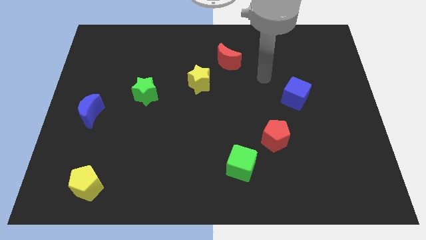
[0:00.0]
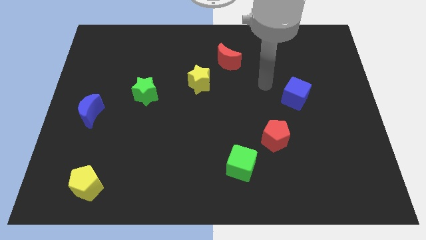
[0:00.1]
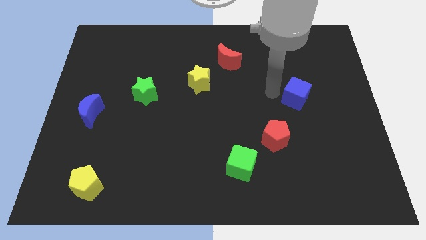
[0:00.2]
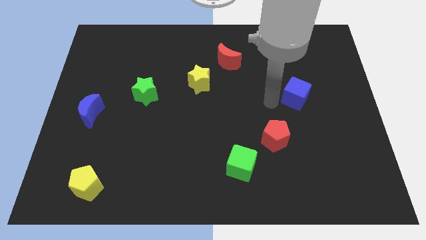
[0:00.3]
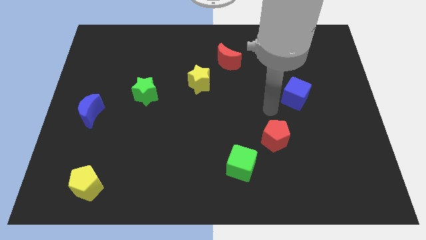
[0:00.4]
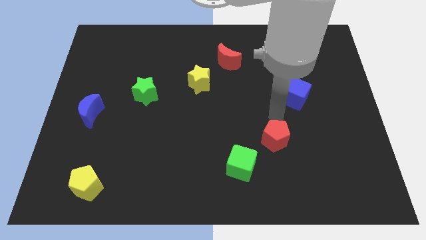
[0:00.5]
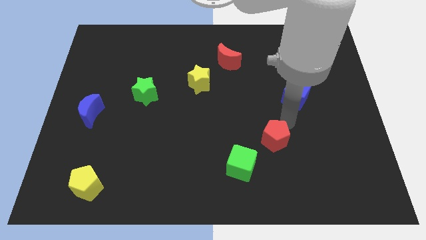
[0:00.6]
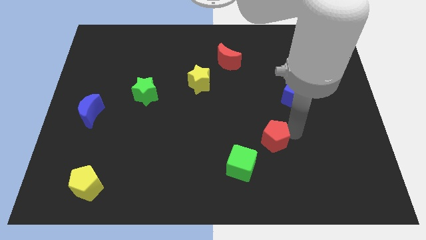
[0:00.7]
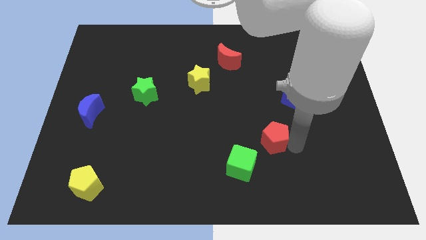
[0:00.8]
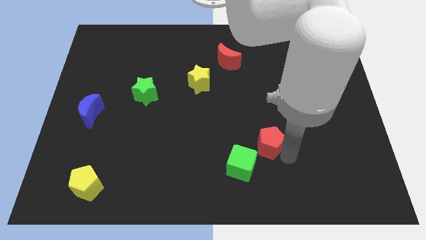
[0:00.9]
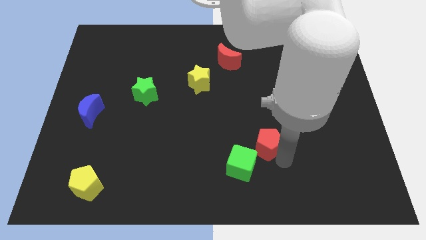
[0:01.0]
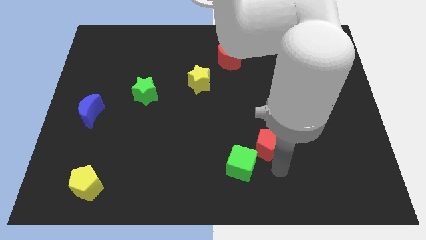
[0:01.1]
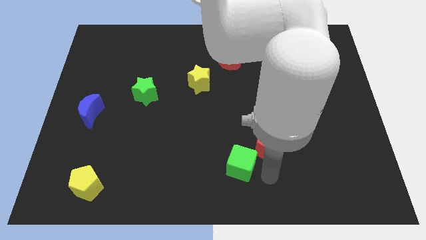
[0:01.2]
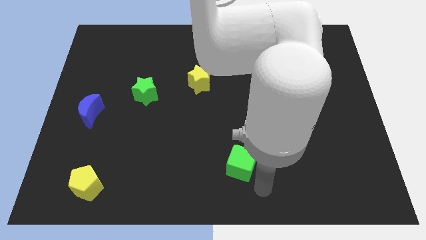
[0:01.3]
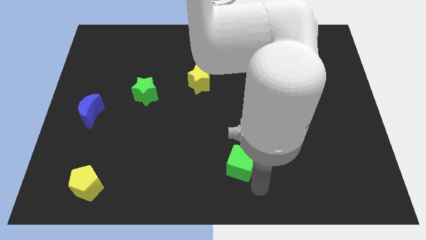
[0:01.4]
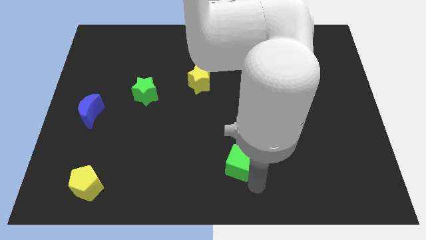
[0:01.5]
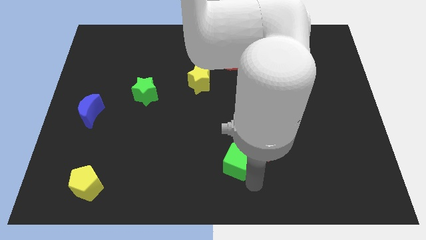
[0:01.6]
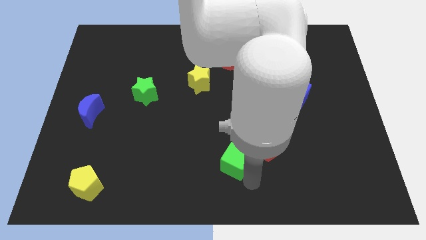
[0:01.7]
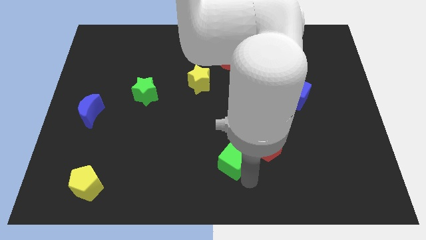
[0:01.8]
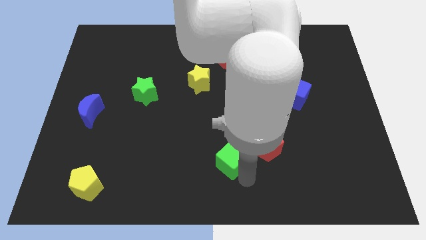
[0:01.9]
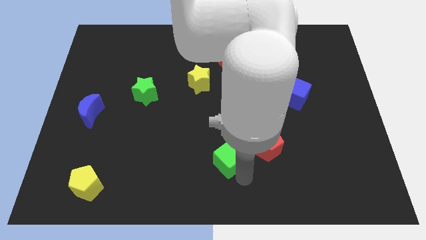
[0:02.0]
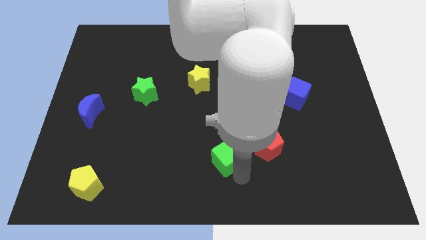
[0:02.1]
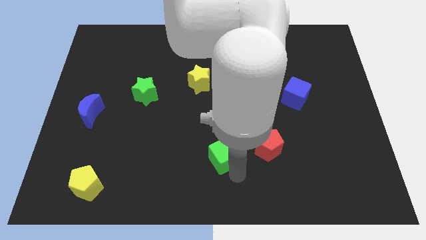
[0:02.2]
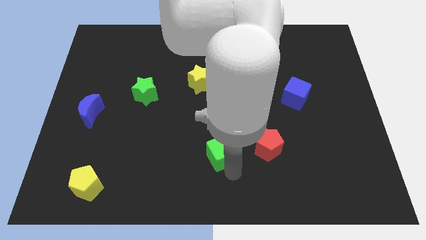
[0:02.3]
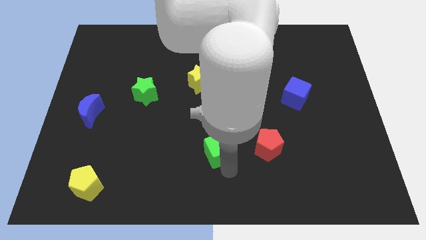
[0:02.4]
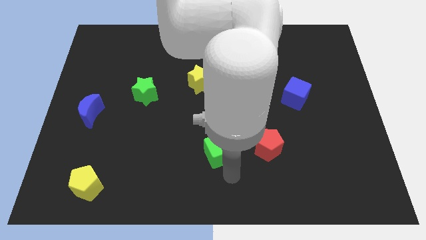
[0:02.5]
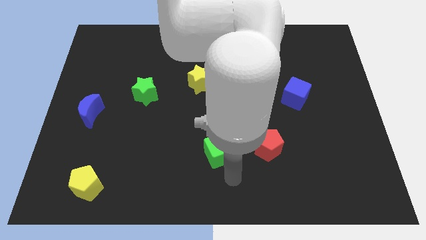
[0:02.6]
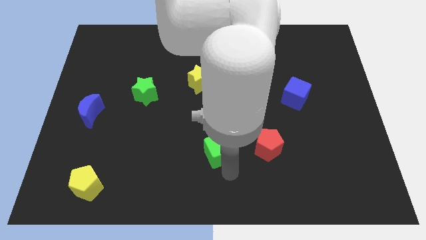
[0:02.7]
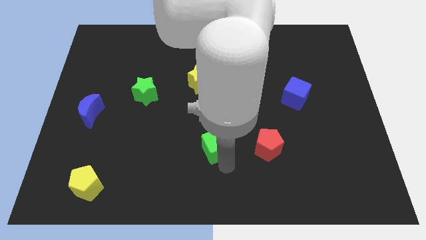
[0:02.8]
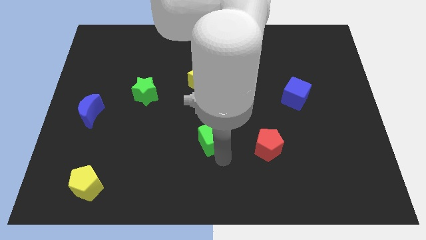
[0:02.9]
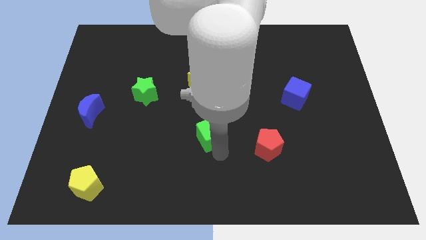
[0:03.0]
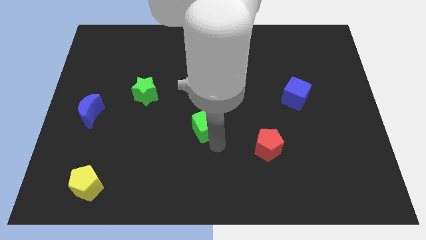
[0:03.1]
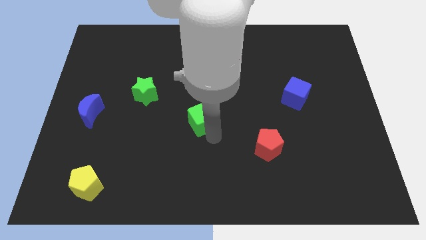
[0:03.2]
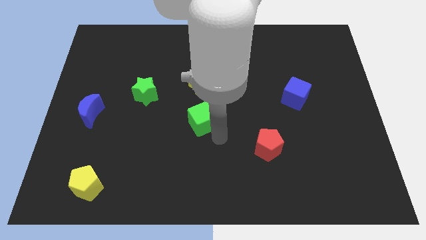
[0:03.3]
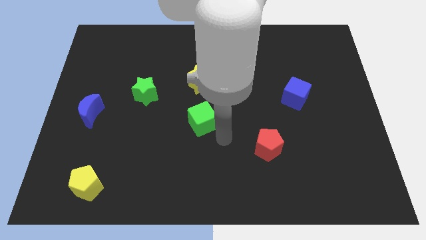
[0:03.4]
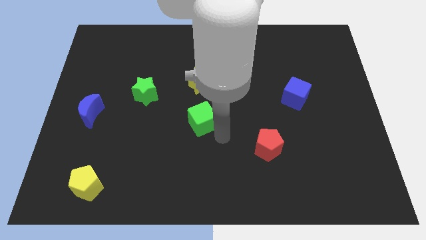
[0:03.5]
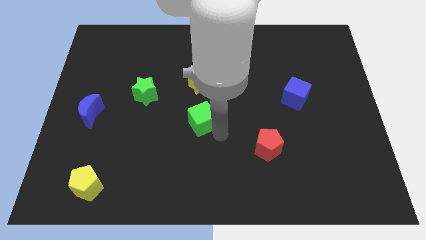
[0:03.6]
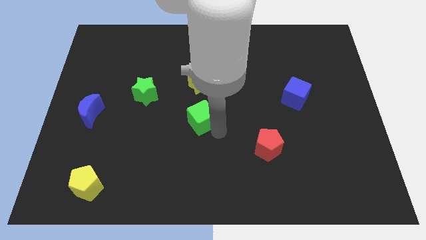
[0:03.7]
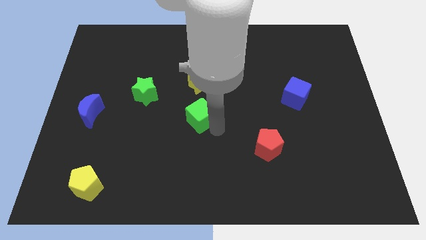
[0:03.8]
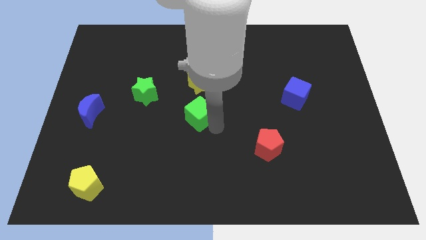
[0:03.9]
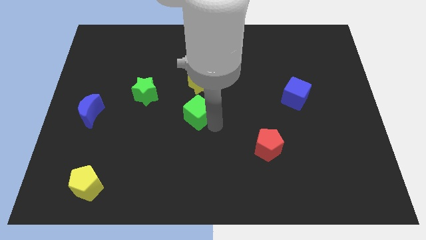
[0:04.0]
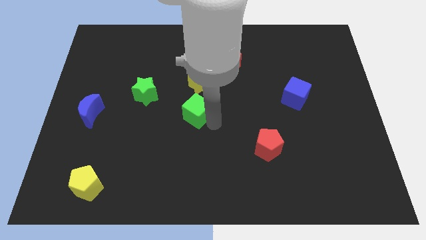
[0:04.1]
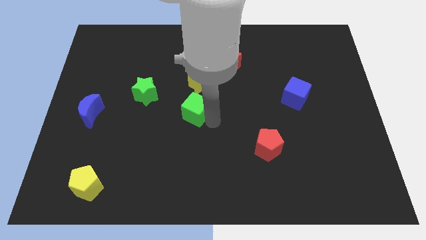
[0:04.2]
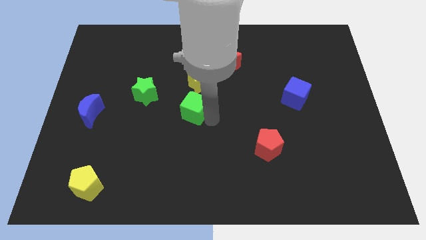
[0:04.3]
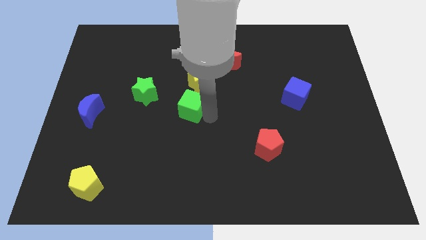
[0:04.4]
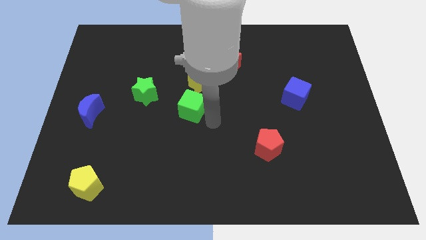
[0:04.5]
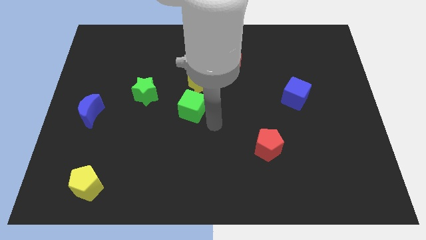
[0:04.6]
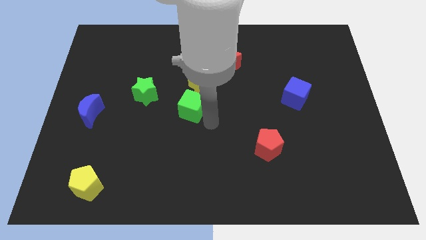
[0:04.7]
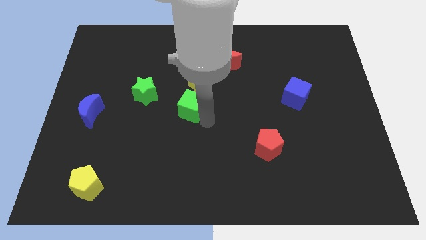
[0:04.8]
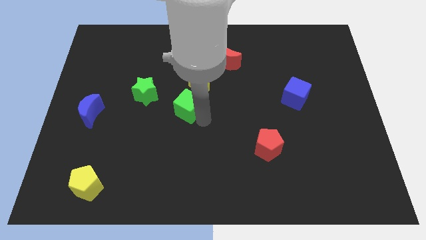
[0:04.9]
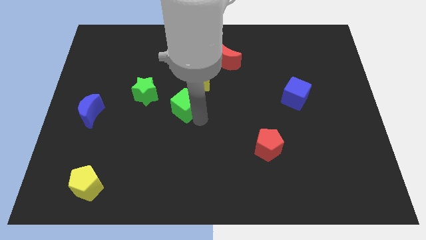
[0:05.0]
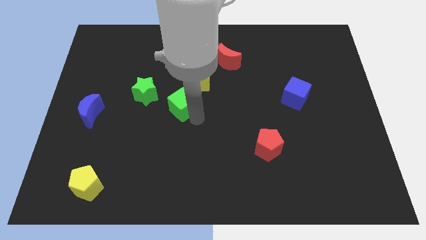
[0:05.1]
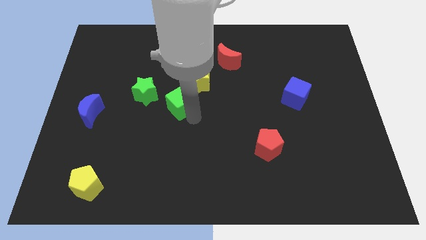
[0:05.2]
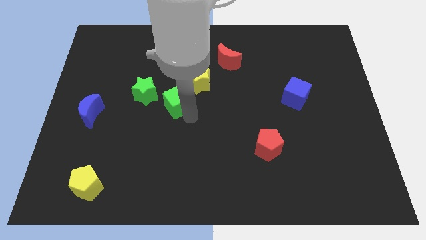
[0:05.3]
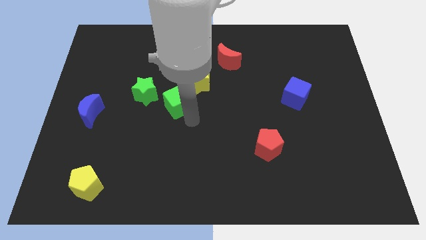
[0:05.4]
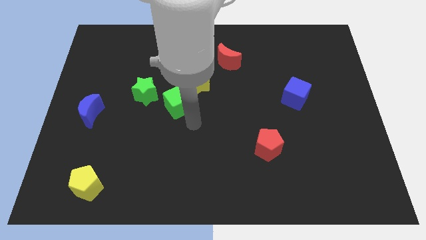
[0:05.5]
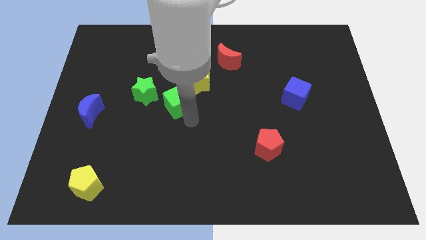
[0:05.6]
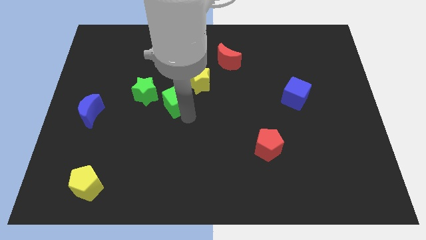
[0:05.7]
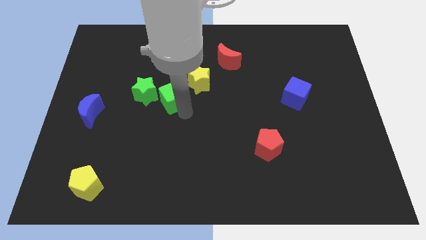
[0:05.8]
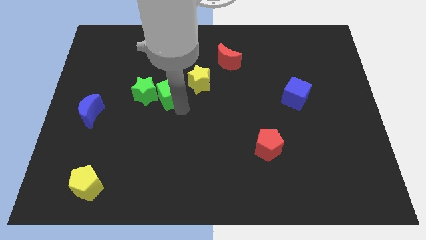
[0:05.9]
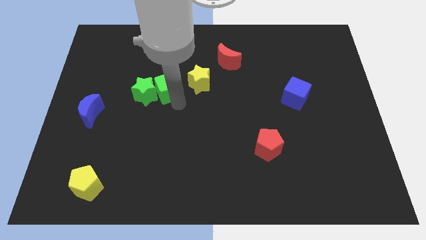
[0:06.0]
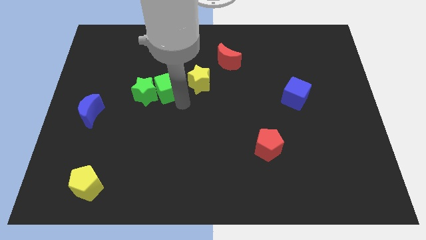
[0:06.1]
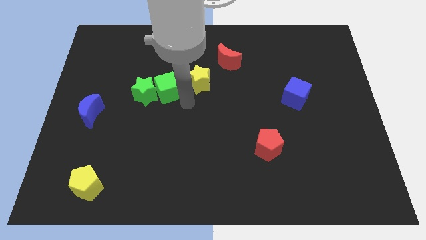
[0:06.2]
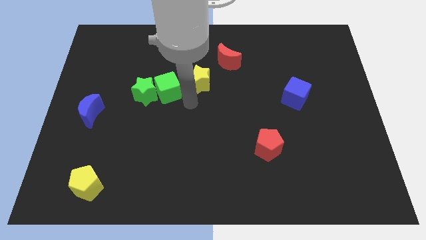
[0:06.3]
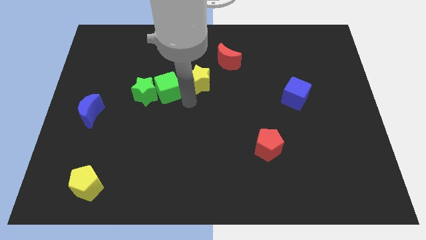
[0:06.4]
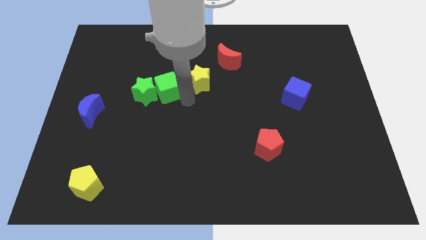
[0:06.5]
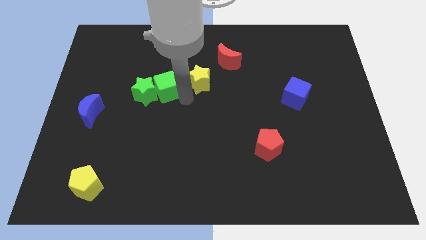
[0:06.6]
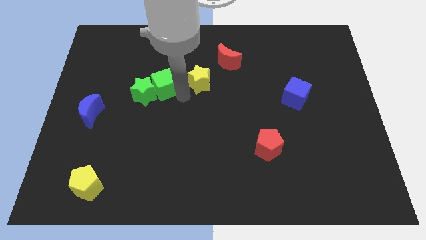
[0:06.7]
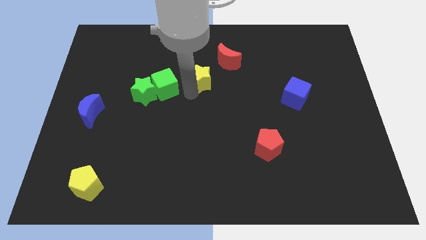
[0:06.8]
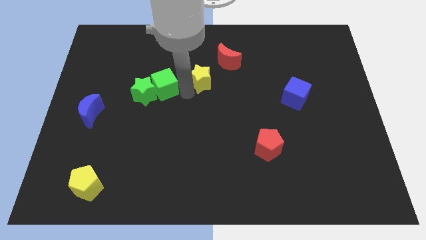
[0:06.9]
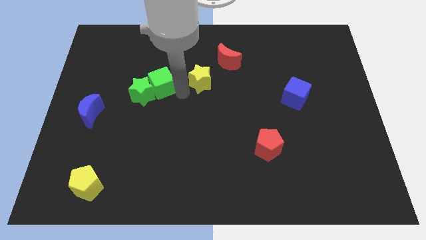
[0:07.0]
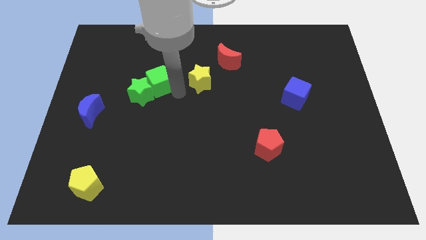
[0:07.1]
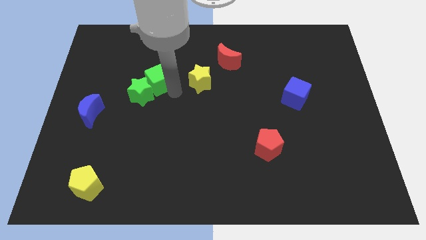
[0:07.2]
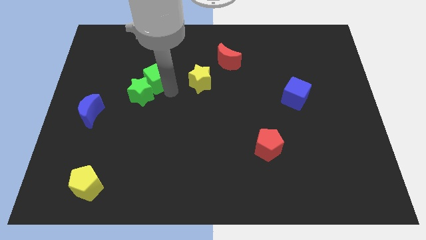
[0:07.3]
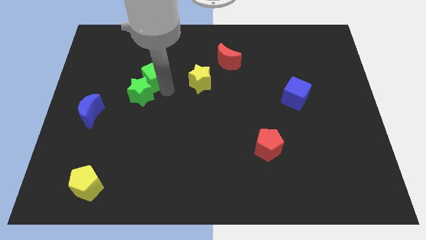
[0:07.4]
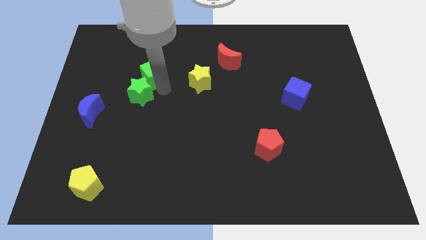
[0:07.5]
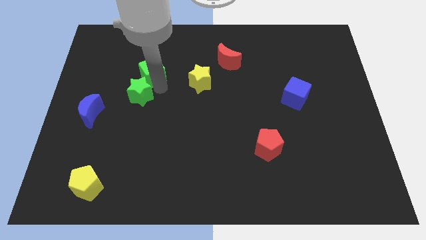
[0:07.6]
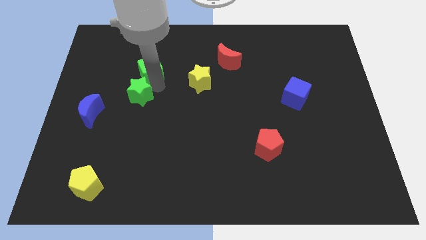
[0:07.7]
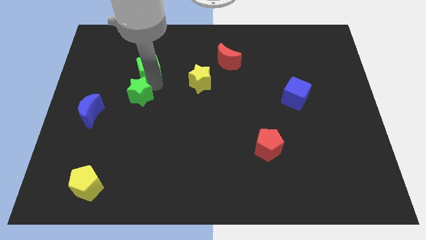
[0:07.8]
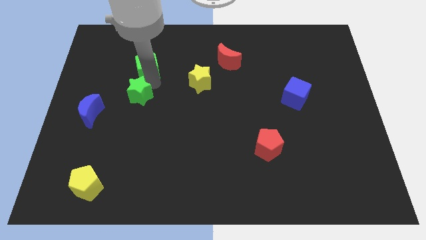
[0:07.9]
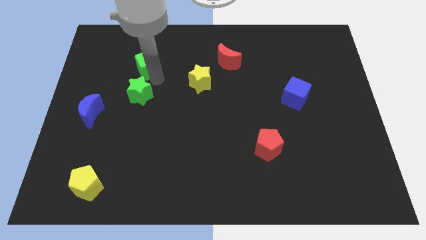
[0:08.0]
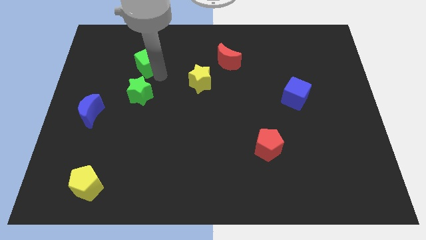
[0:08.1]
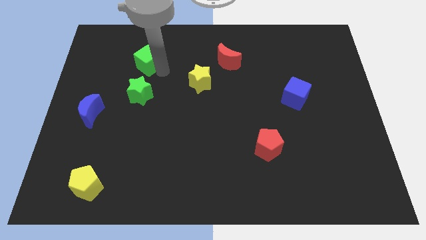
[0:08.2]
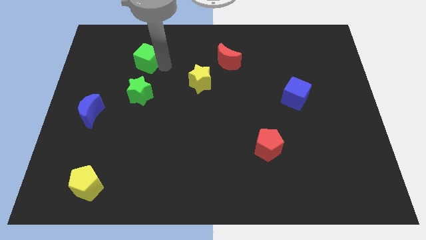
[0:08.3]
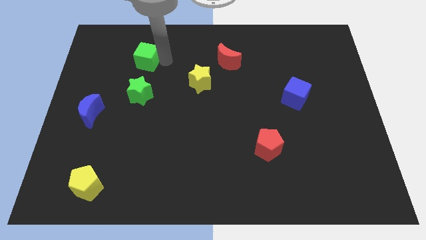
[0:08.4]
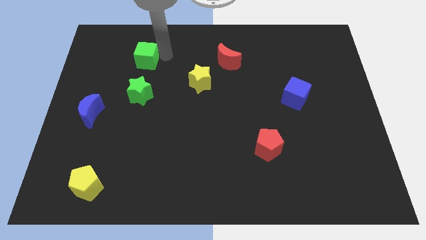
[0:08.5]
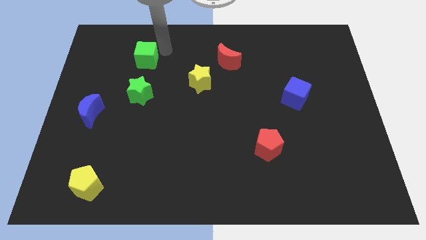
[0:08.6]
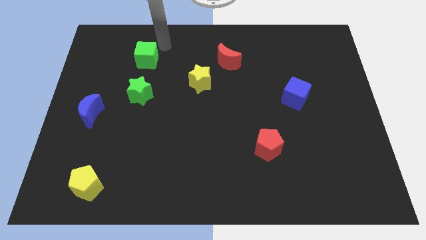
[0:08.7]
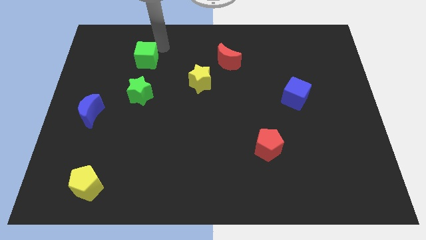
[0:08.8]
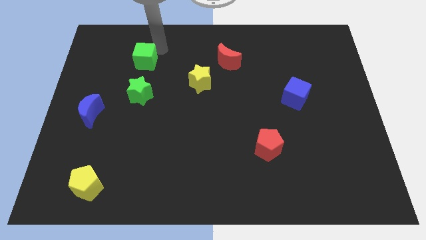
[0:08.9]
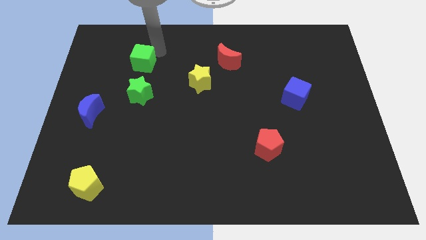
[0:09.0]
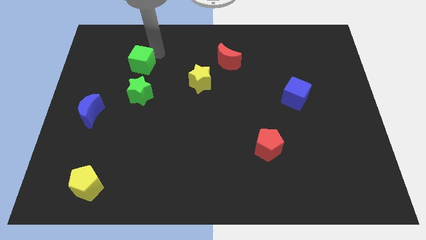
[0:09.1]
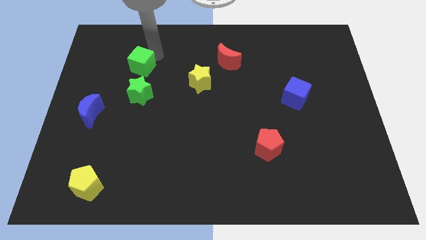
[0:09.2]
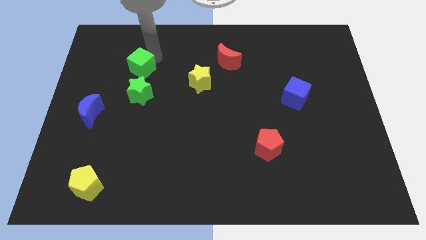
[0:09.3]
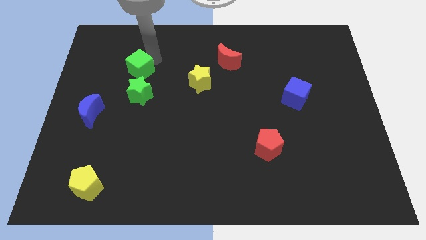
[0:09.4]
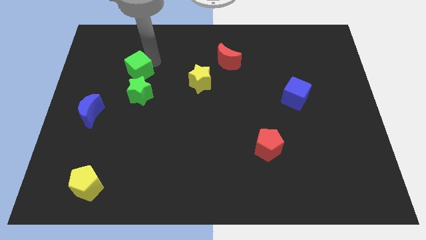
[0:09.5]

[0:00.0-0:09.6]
slide the green cube to the top left side of the green star
